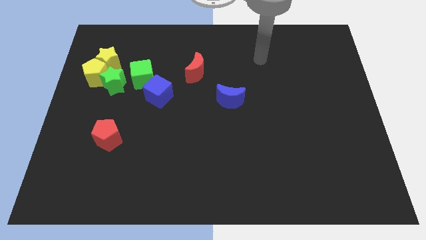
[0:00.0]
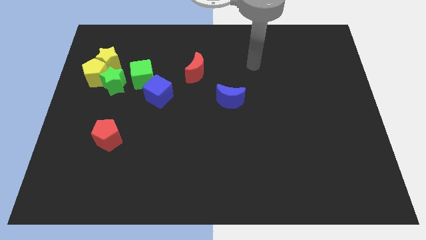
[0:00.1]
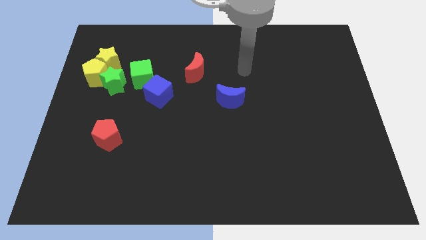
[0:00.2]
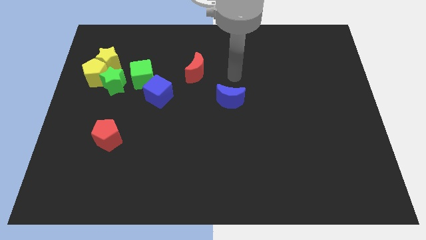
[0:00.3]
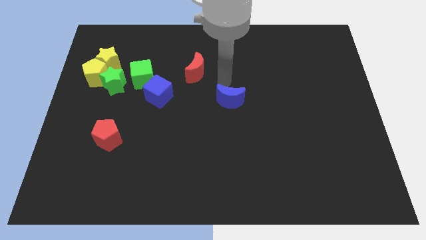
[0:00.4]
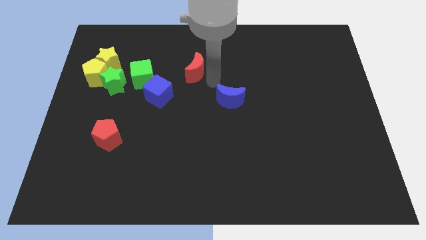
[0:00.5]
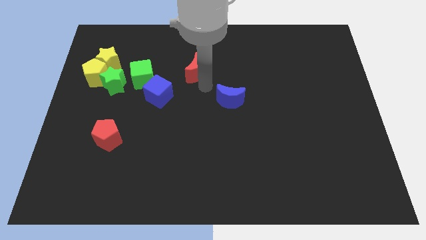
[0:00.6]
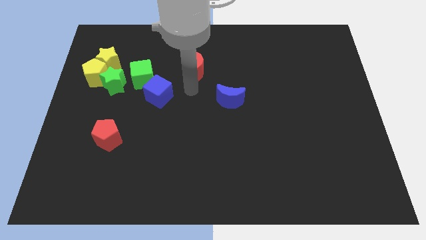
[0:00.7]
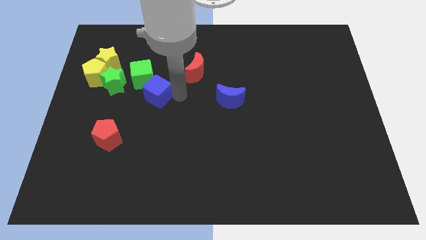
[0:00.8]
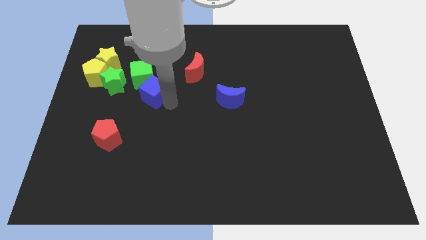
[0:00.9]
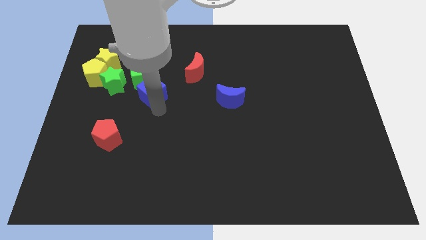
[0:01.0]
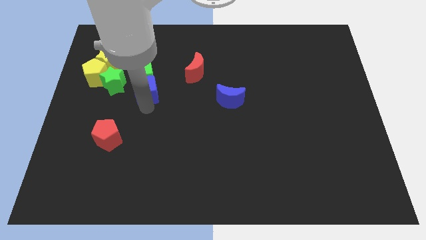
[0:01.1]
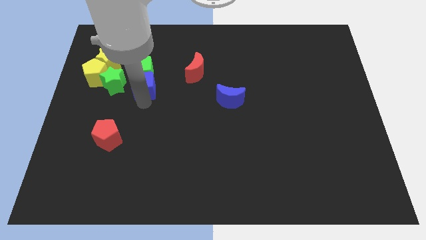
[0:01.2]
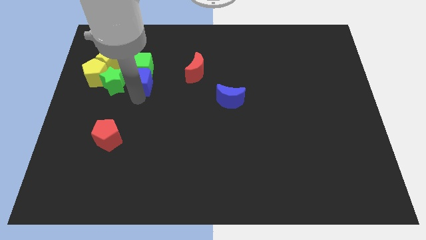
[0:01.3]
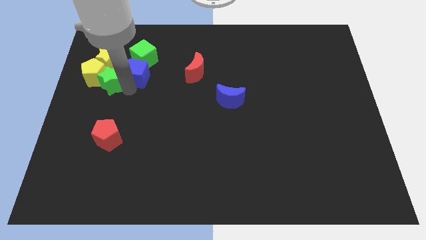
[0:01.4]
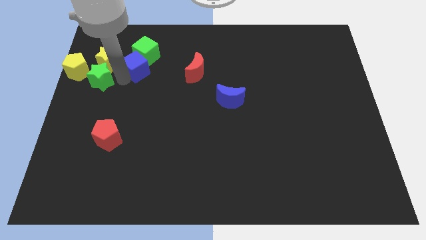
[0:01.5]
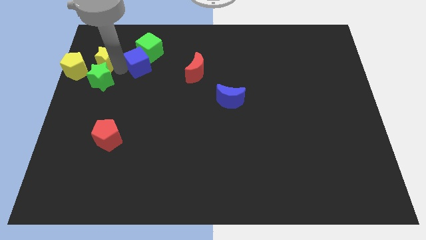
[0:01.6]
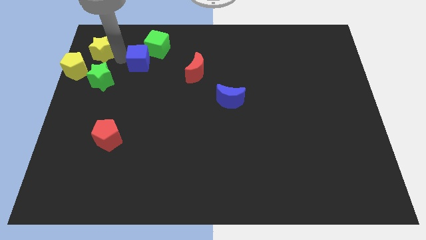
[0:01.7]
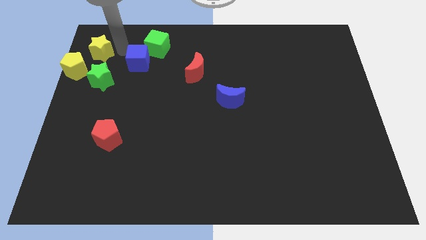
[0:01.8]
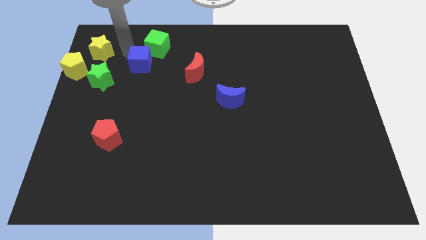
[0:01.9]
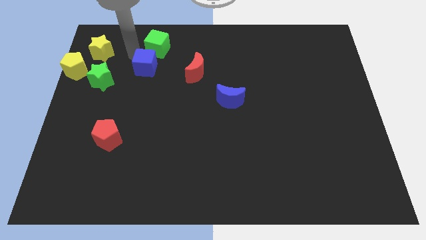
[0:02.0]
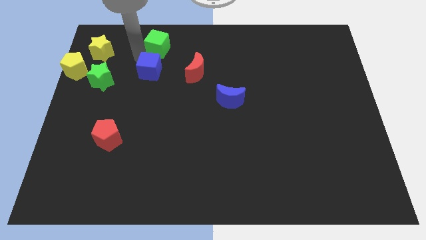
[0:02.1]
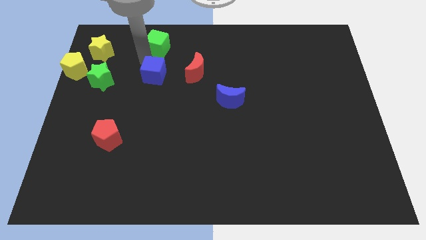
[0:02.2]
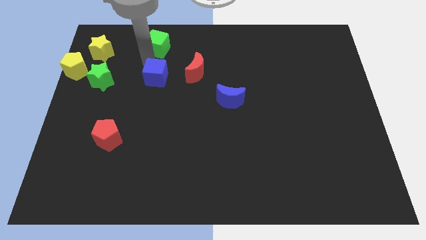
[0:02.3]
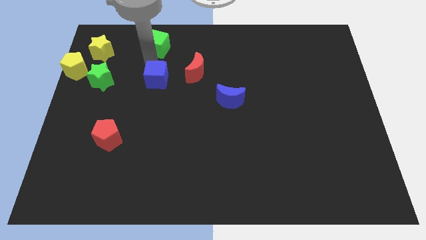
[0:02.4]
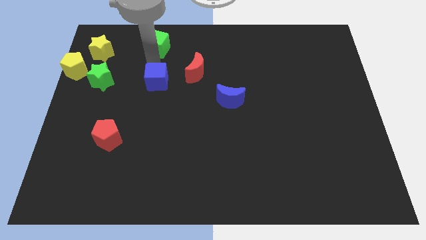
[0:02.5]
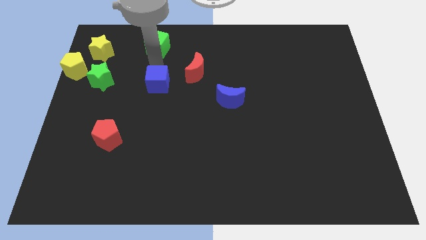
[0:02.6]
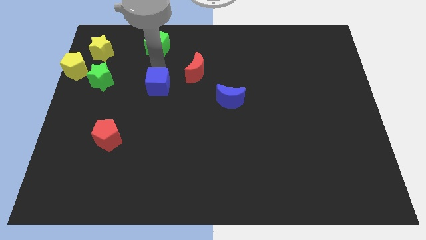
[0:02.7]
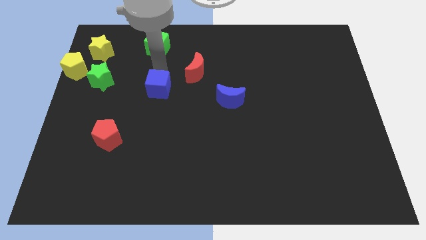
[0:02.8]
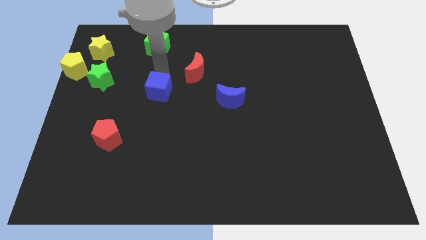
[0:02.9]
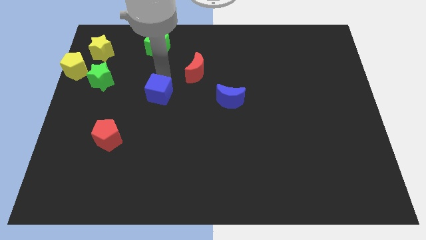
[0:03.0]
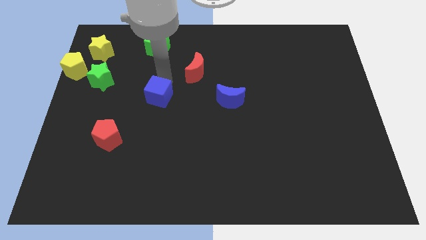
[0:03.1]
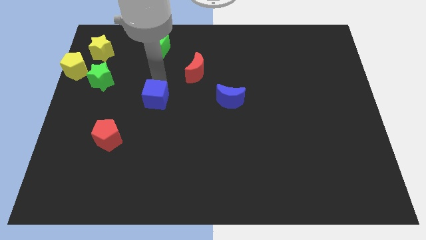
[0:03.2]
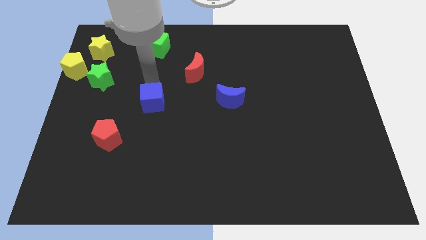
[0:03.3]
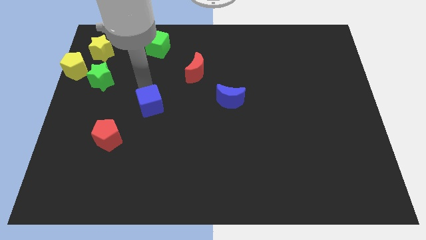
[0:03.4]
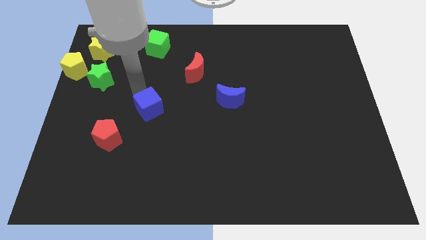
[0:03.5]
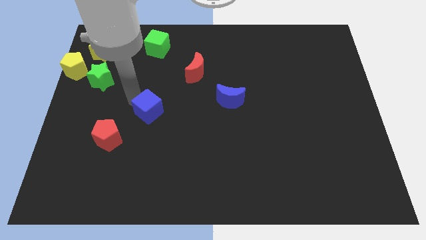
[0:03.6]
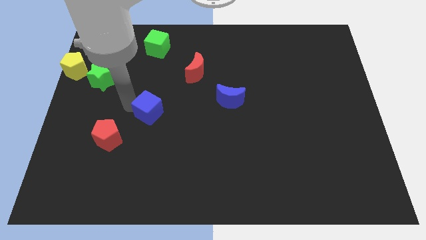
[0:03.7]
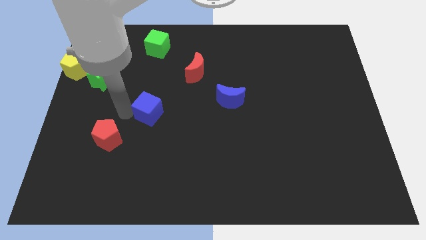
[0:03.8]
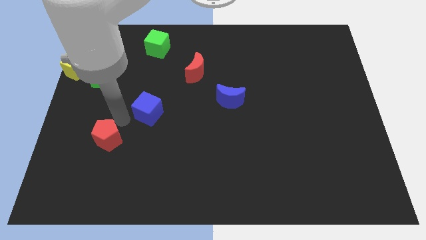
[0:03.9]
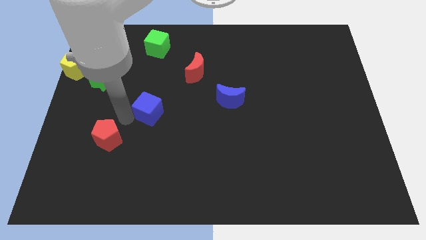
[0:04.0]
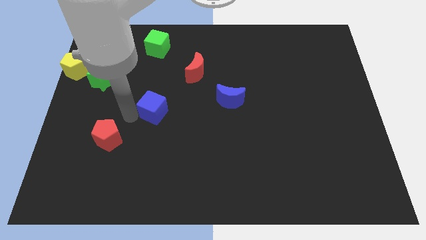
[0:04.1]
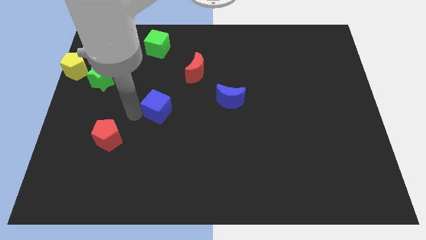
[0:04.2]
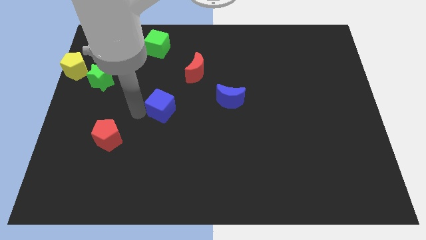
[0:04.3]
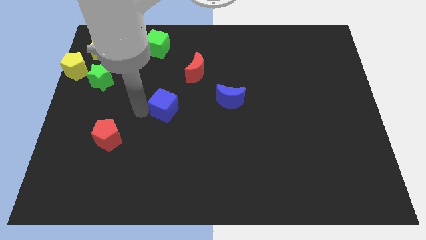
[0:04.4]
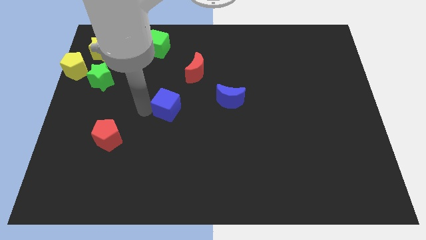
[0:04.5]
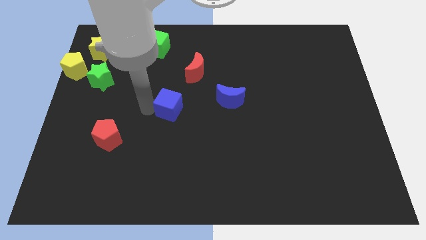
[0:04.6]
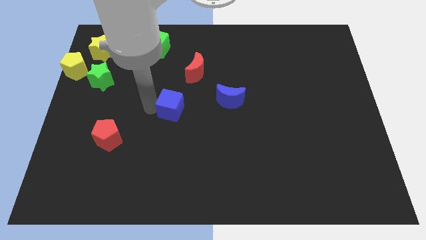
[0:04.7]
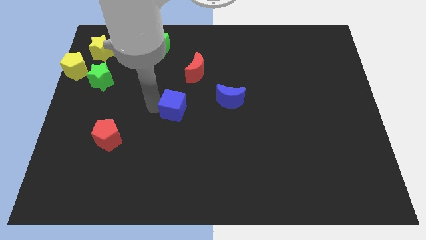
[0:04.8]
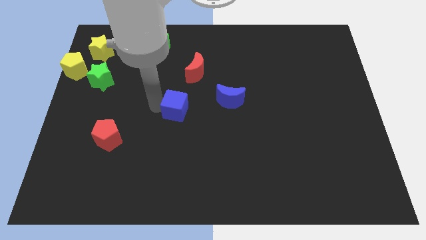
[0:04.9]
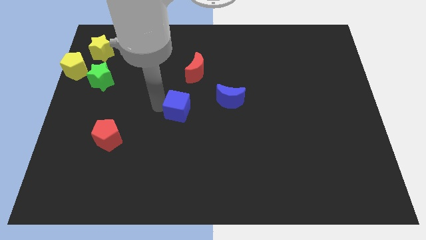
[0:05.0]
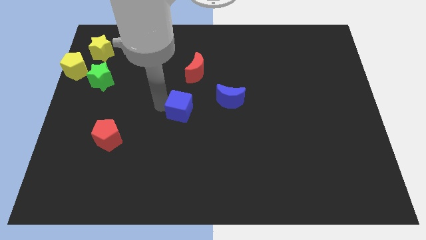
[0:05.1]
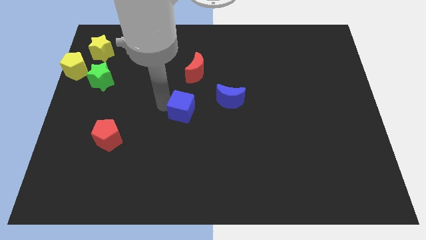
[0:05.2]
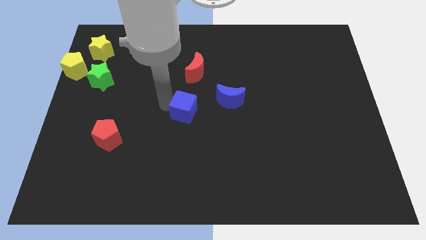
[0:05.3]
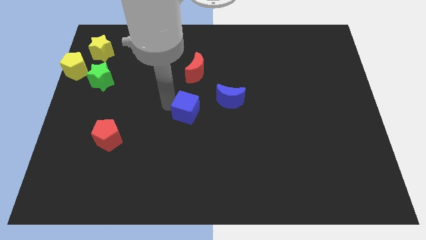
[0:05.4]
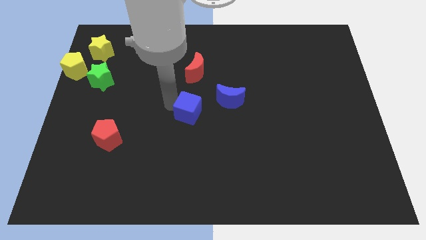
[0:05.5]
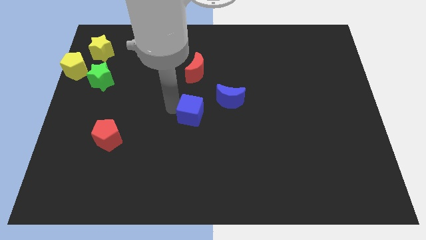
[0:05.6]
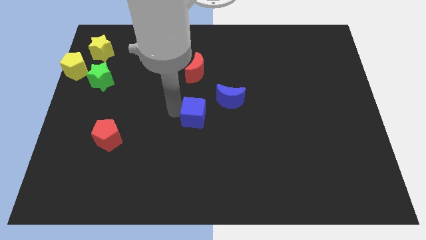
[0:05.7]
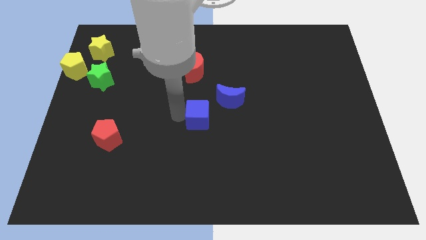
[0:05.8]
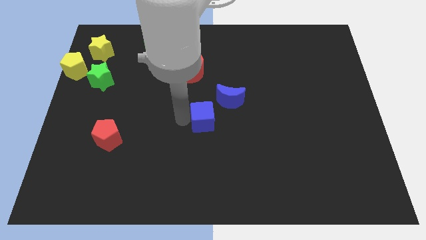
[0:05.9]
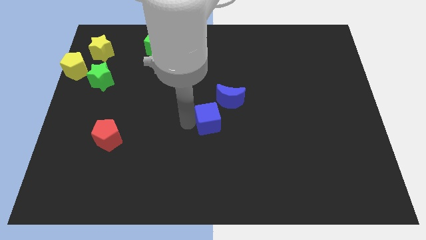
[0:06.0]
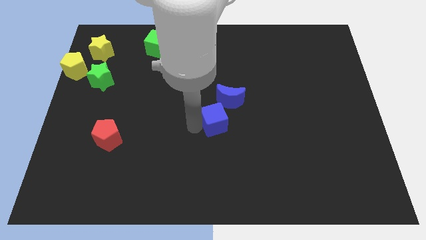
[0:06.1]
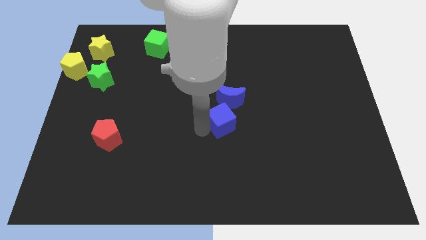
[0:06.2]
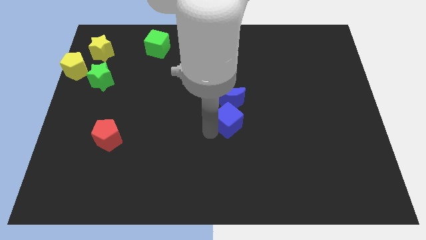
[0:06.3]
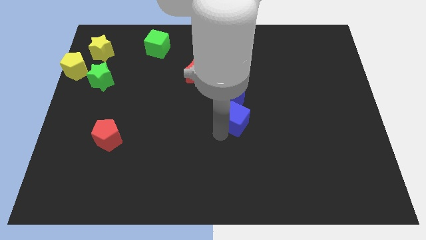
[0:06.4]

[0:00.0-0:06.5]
push the blue cube towards the blue moon

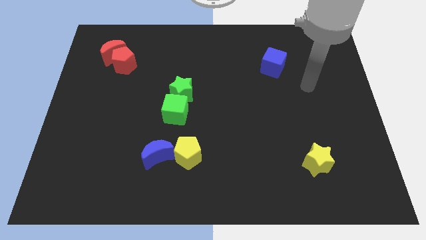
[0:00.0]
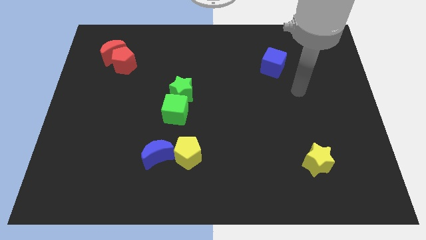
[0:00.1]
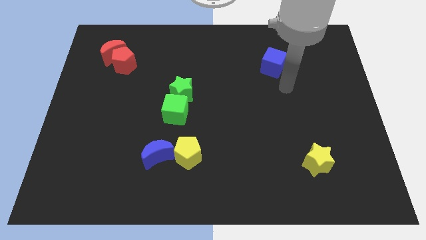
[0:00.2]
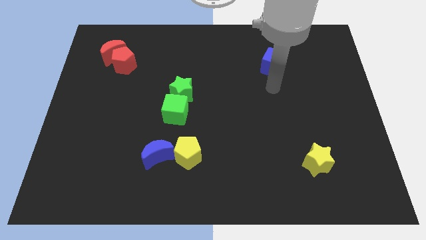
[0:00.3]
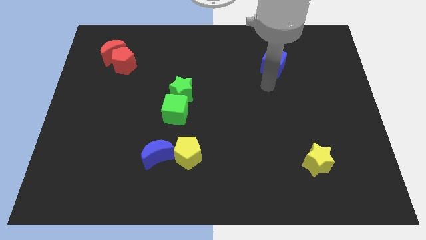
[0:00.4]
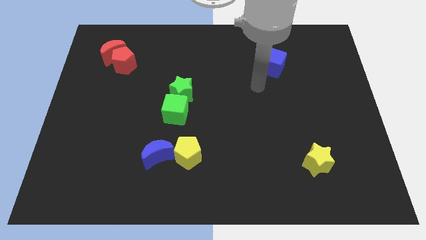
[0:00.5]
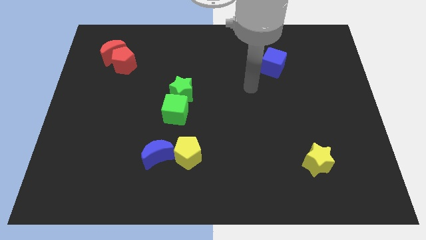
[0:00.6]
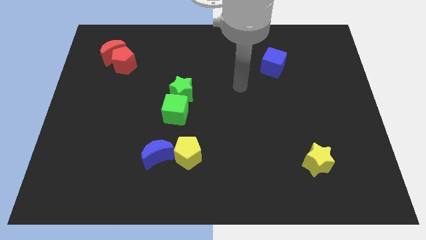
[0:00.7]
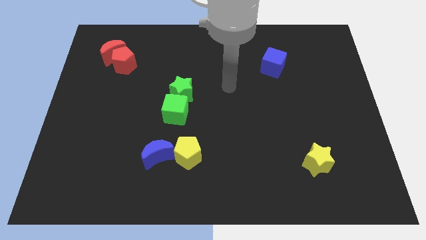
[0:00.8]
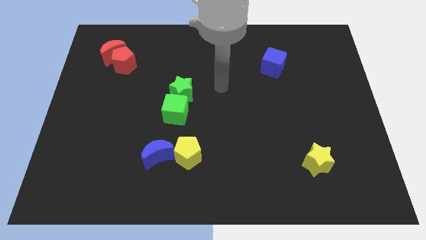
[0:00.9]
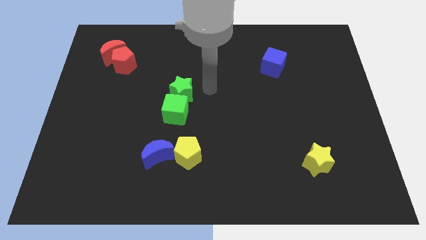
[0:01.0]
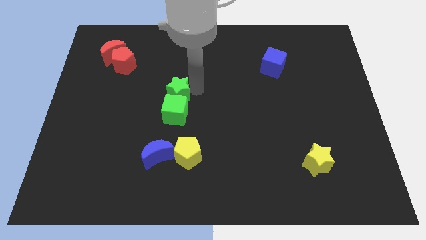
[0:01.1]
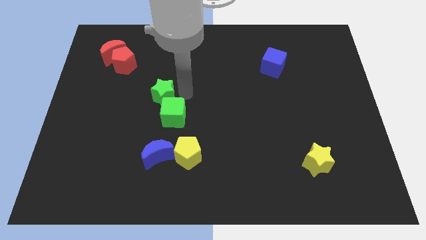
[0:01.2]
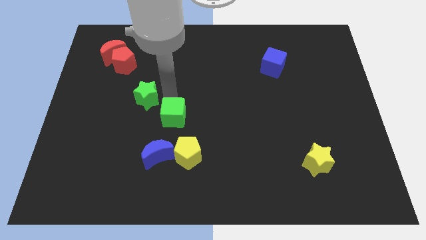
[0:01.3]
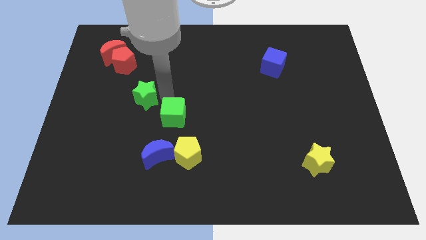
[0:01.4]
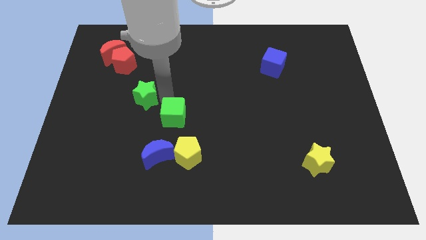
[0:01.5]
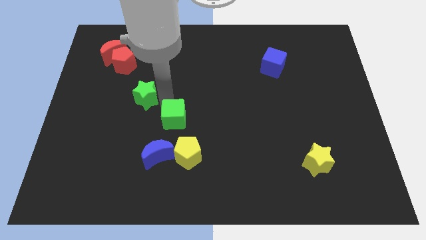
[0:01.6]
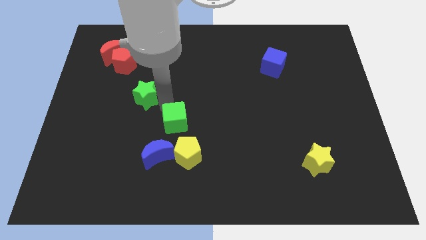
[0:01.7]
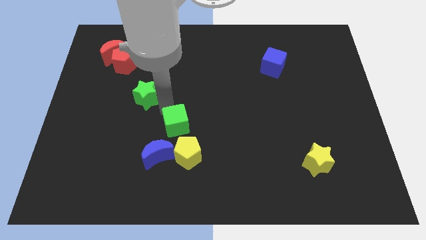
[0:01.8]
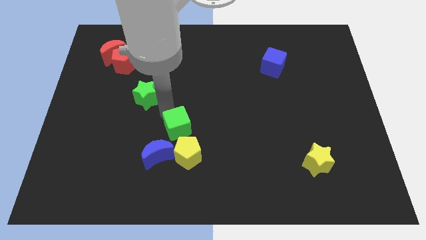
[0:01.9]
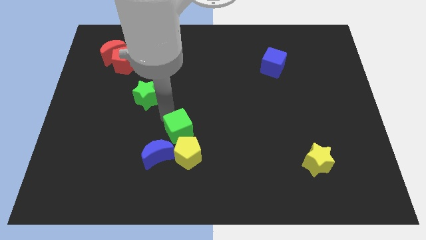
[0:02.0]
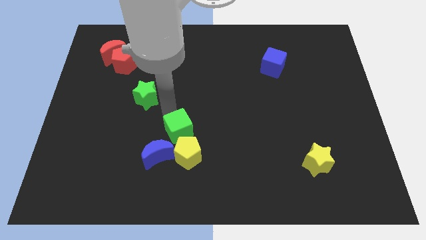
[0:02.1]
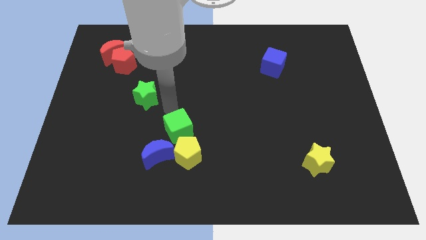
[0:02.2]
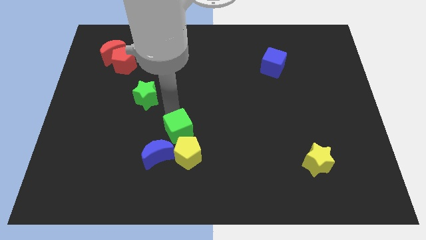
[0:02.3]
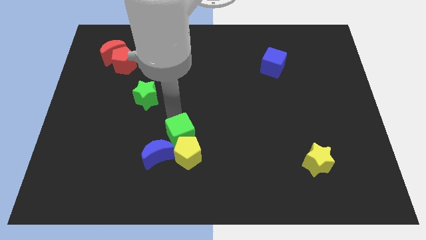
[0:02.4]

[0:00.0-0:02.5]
slide the green cube to the yellow pentagon
